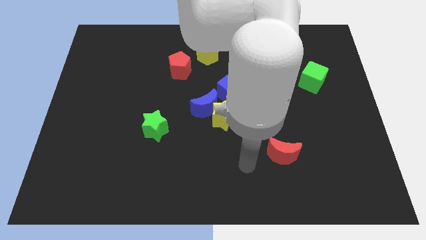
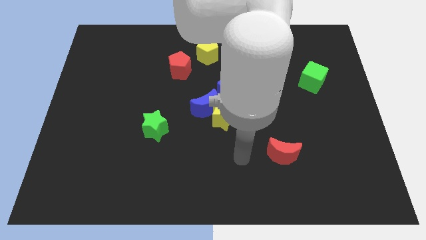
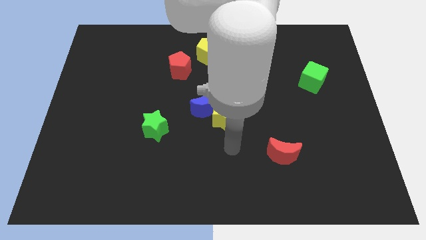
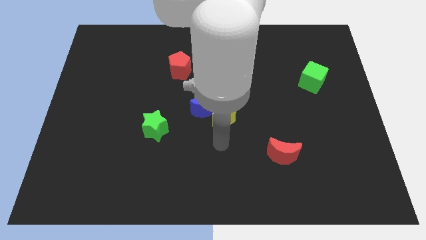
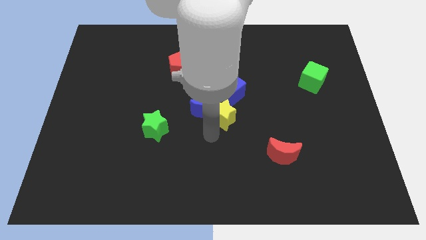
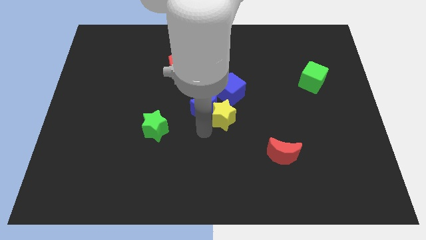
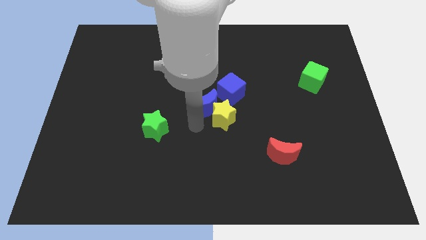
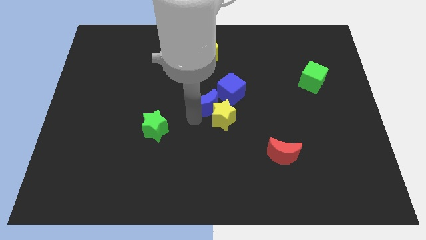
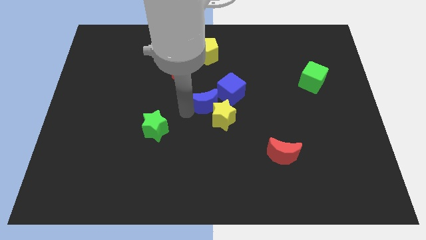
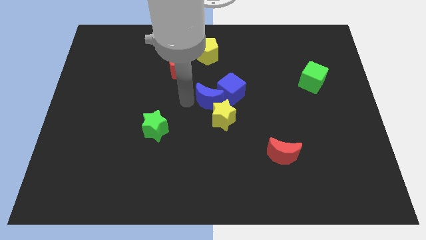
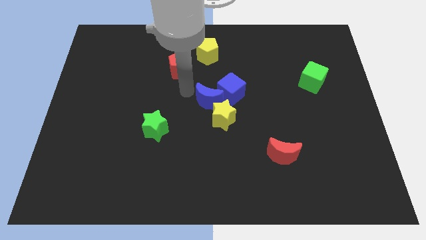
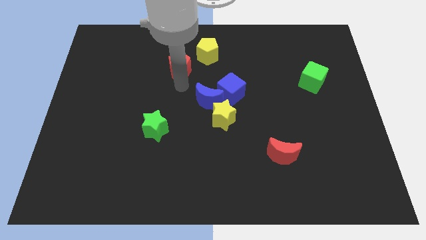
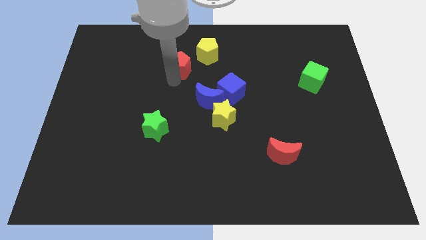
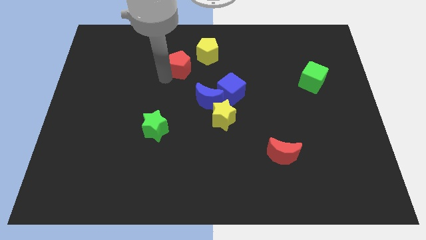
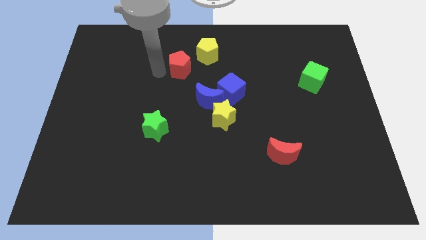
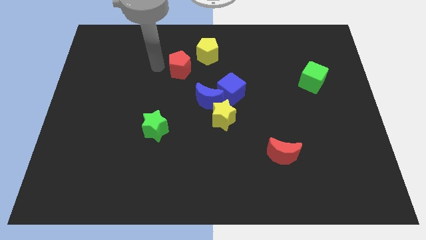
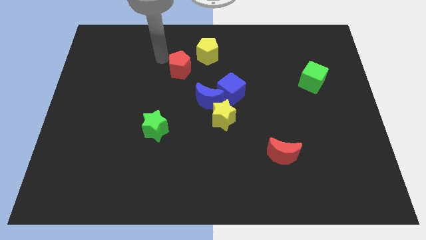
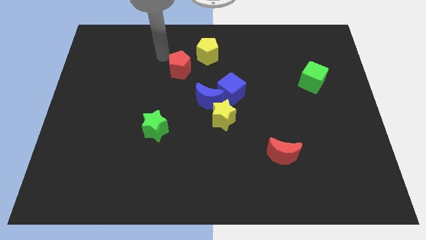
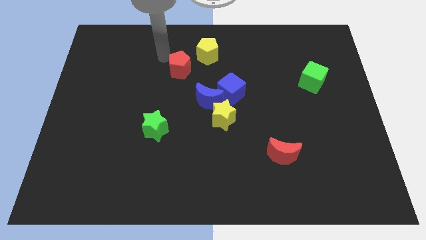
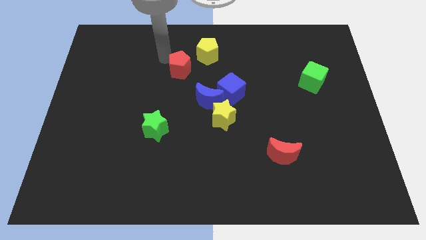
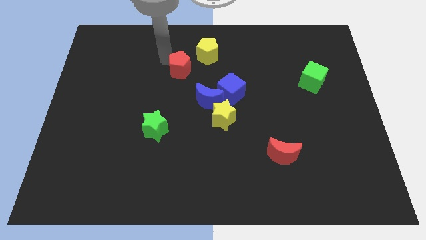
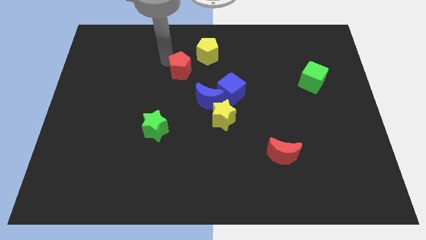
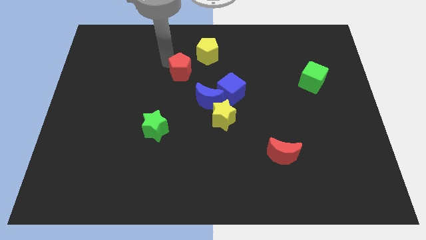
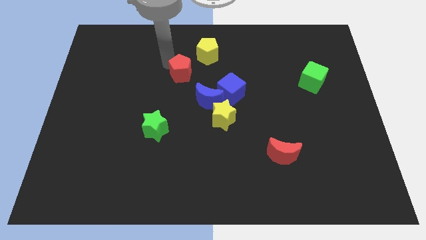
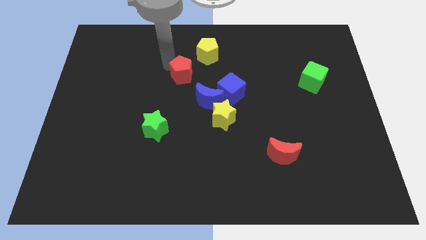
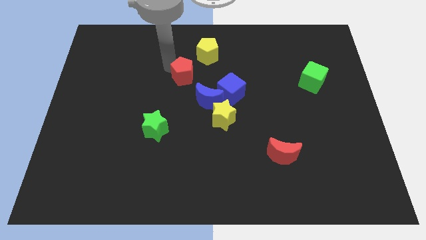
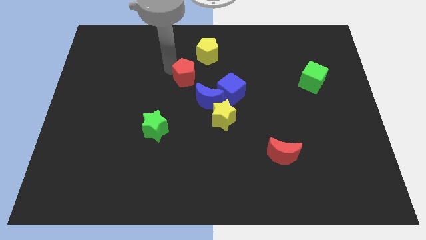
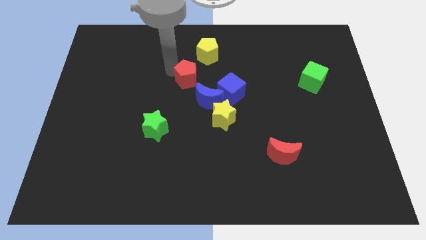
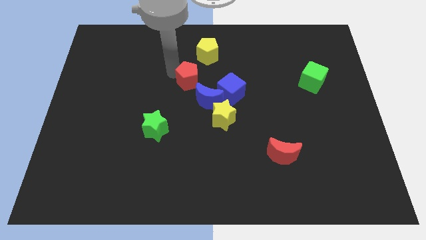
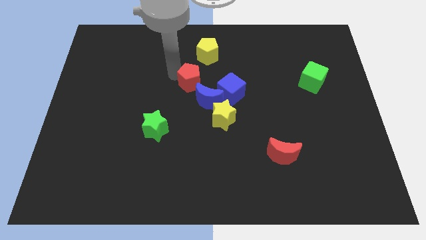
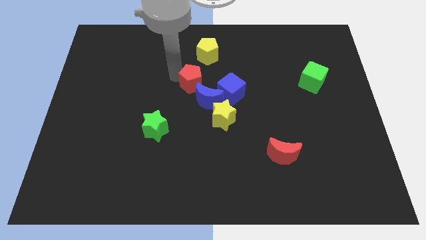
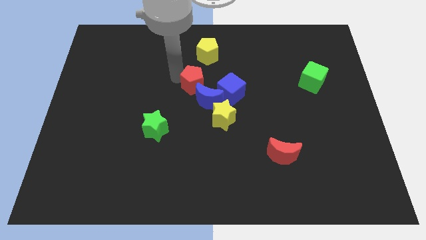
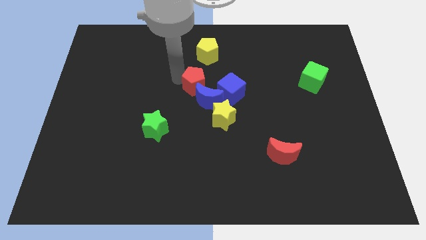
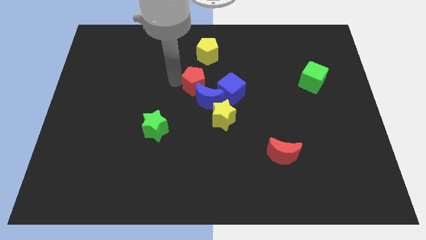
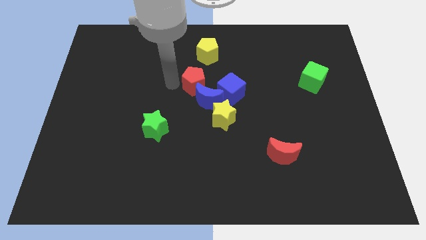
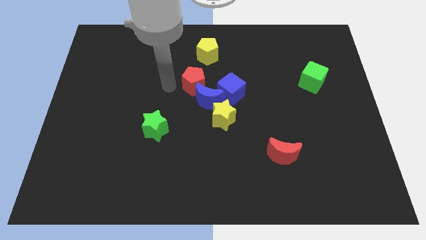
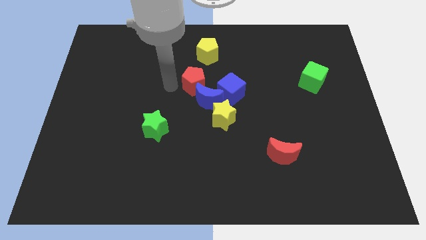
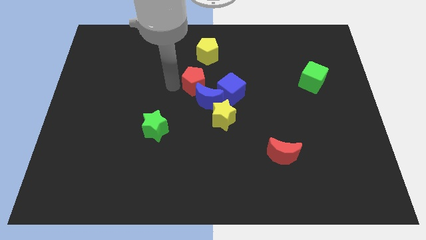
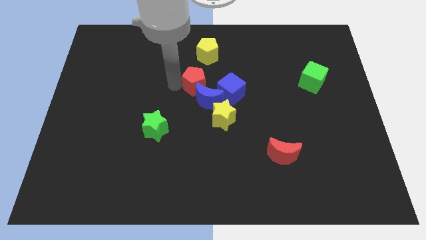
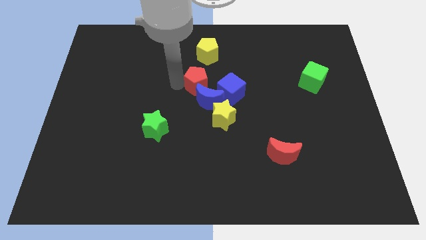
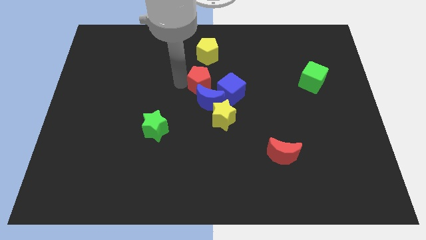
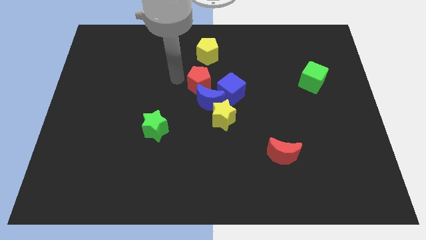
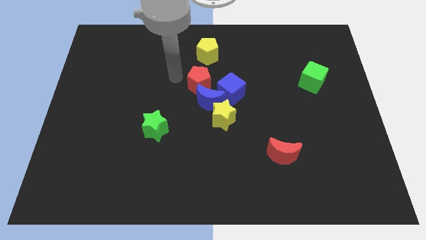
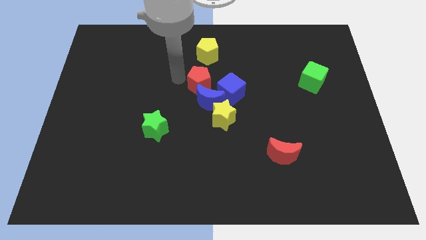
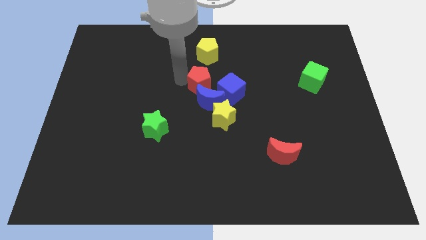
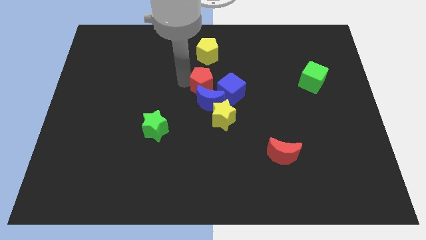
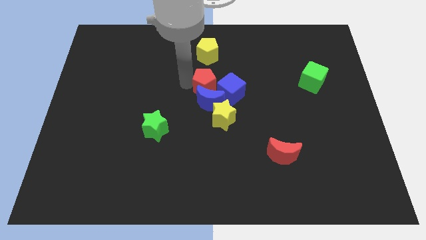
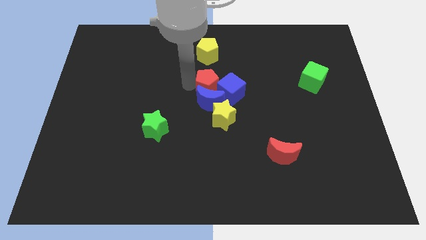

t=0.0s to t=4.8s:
slide the red pentagon towards the blue cube

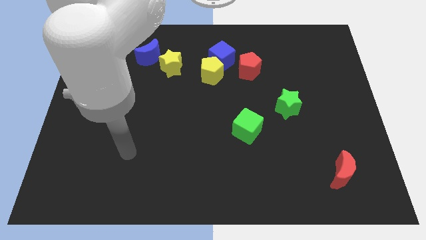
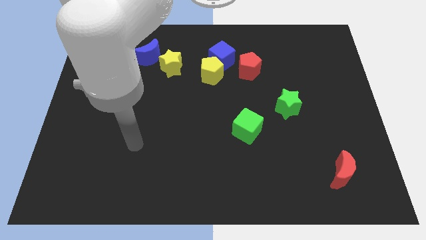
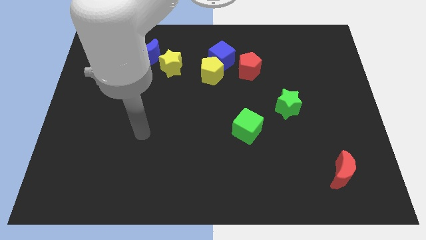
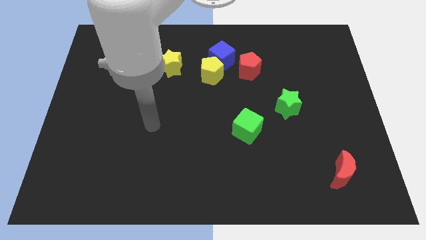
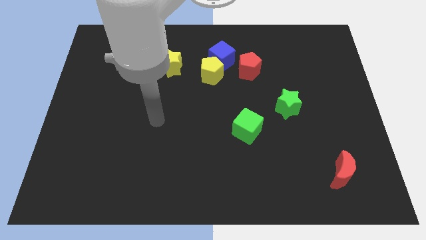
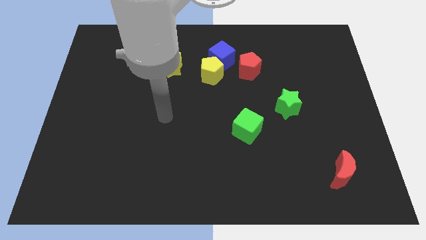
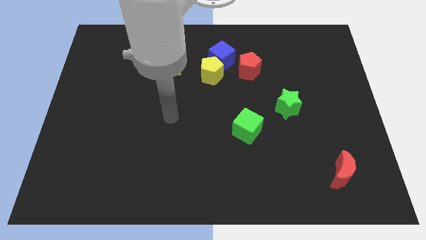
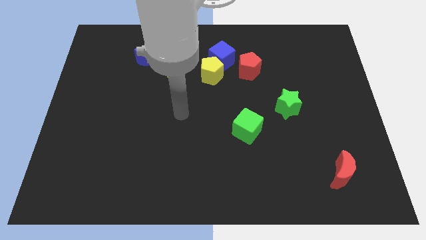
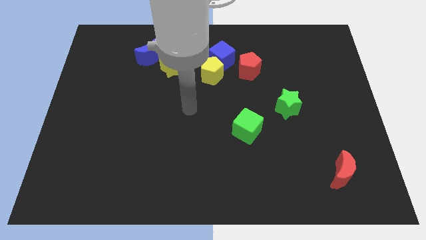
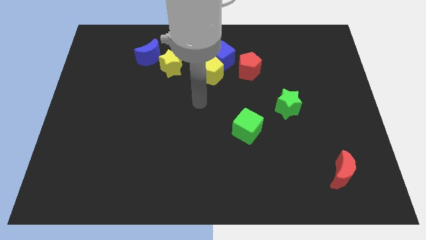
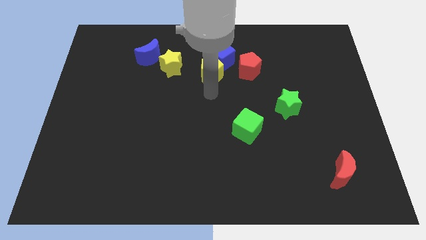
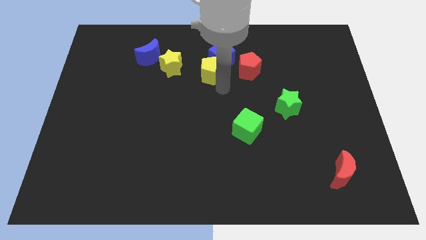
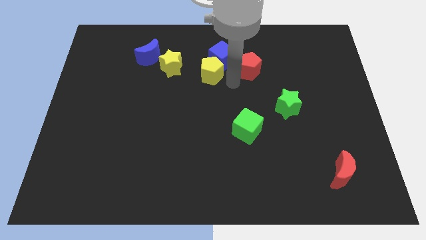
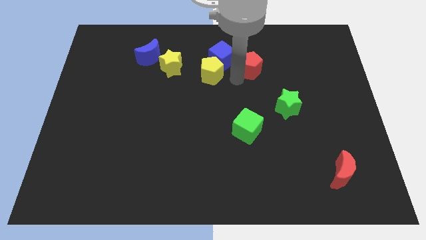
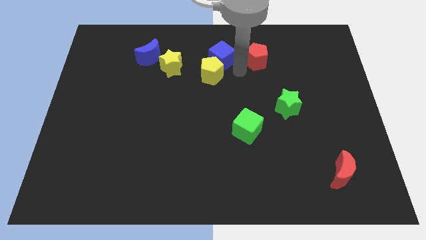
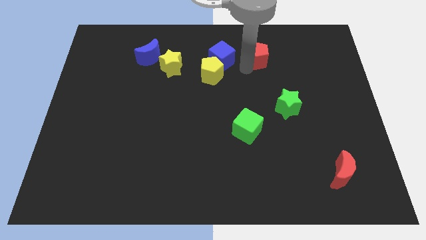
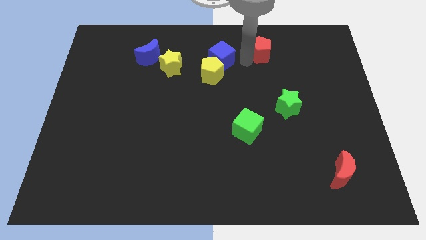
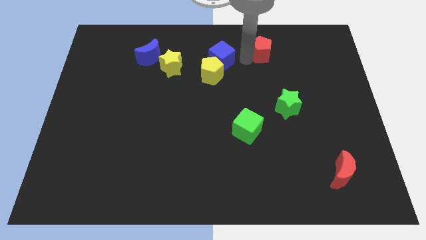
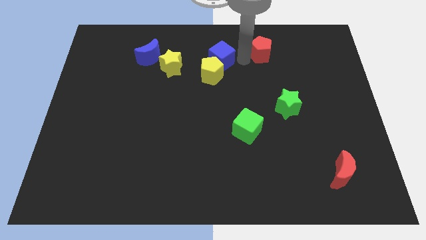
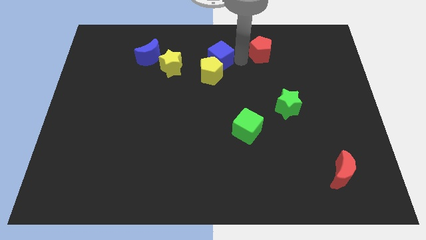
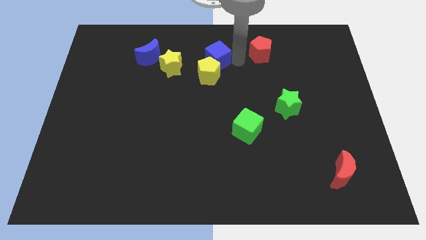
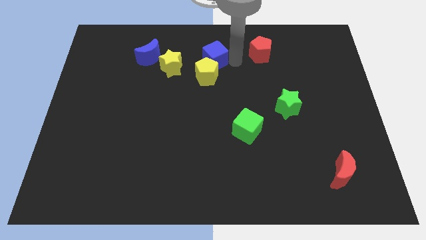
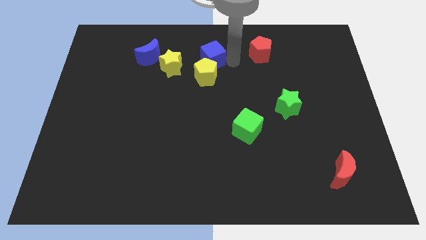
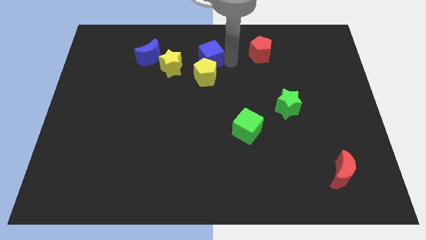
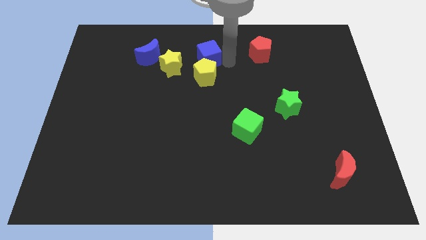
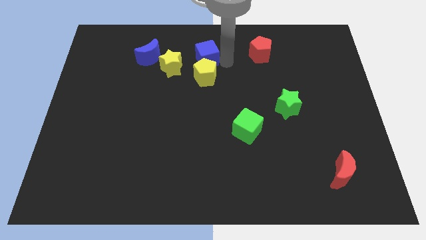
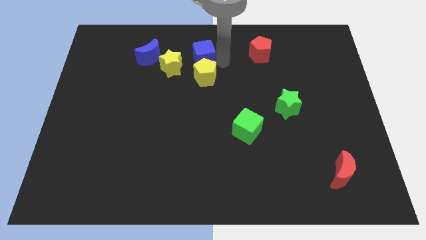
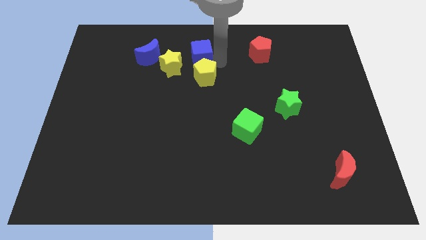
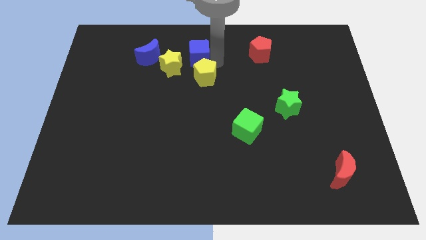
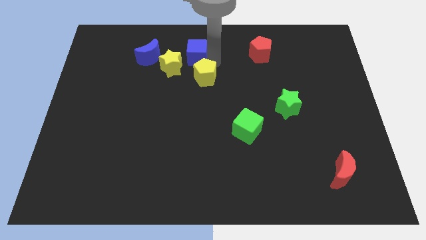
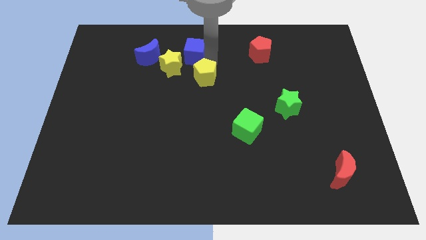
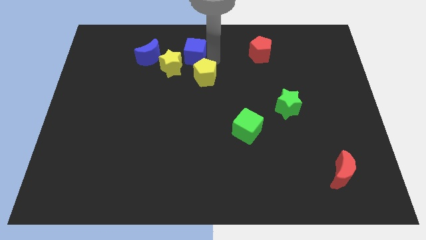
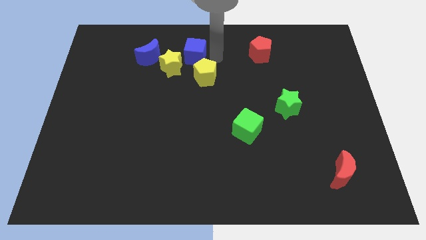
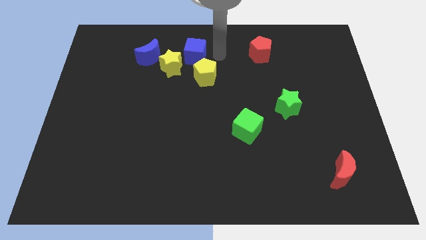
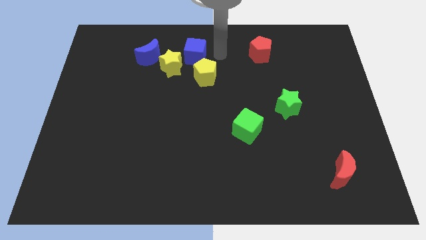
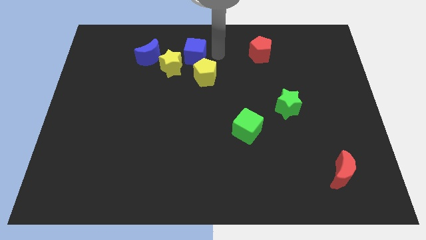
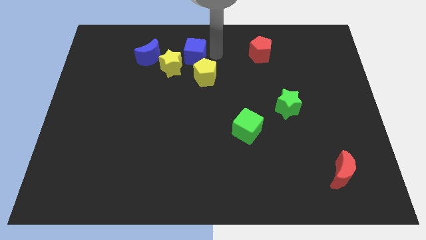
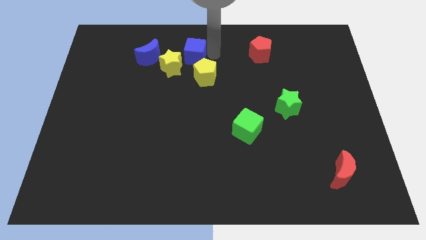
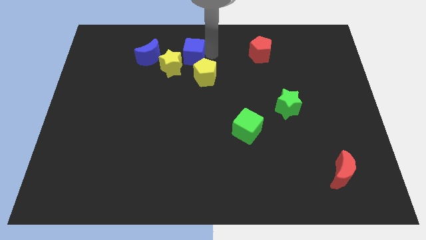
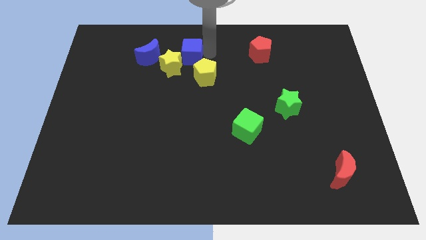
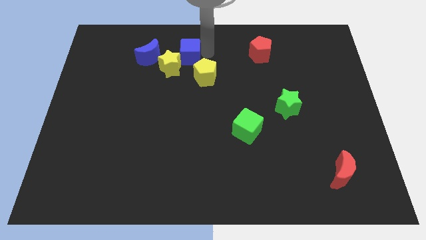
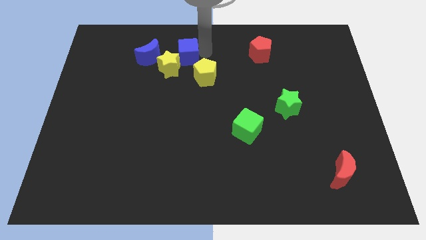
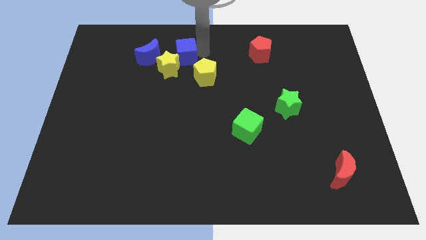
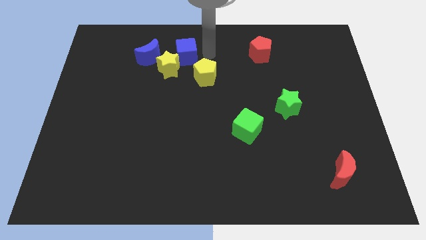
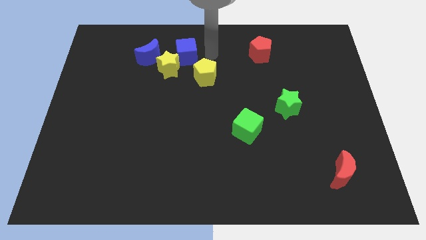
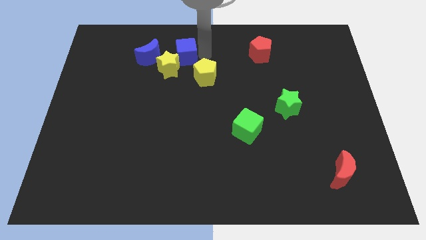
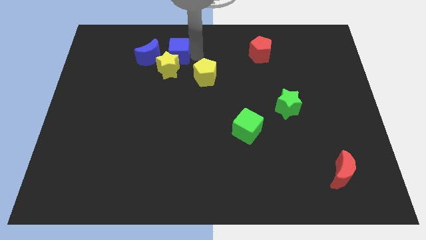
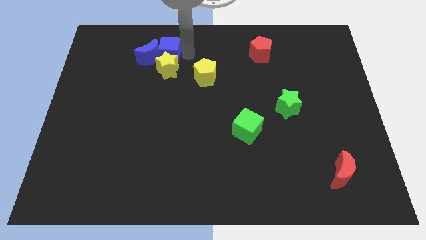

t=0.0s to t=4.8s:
put the blue cube to the blue moon
